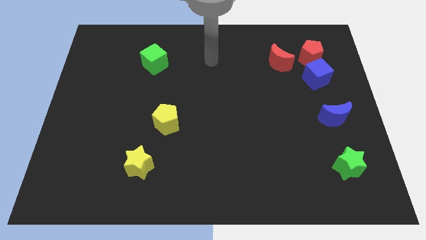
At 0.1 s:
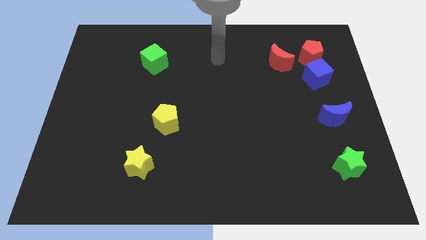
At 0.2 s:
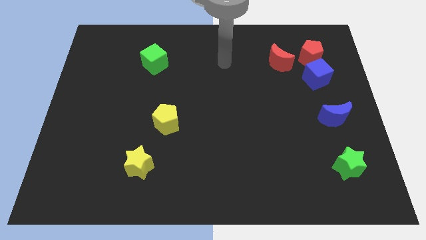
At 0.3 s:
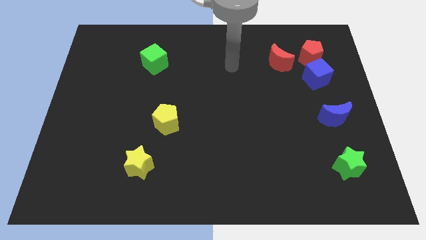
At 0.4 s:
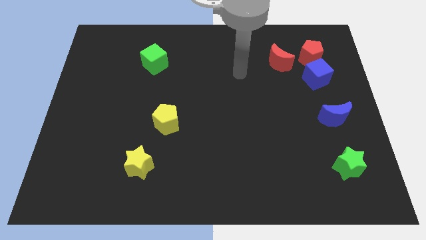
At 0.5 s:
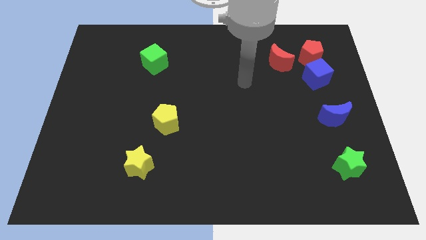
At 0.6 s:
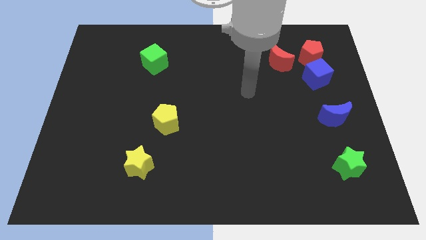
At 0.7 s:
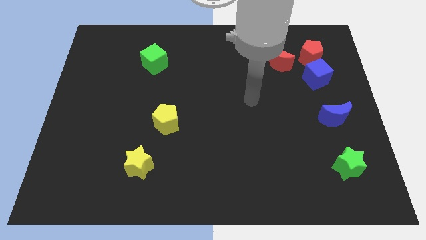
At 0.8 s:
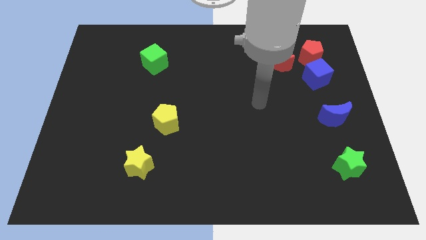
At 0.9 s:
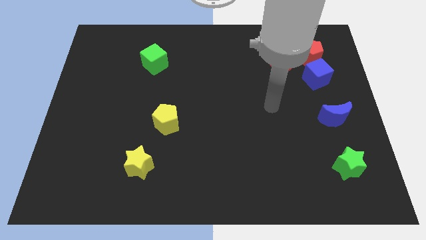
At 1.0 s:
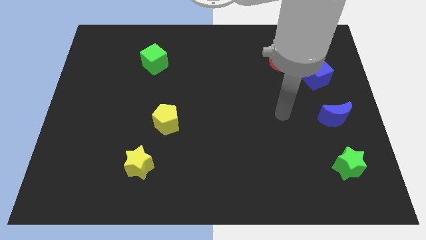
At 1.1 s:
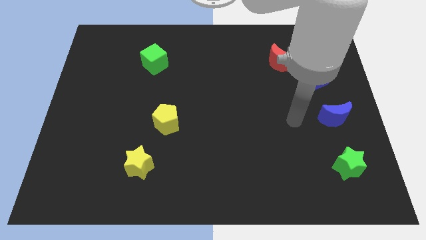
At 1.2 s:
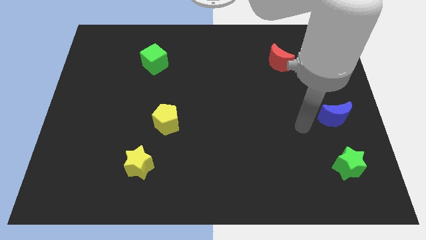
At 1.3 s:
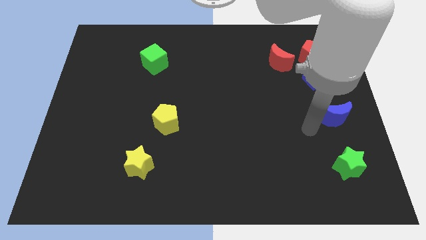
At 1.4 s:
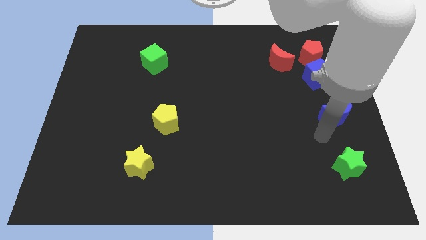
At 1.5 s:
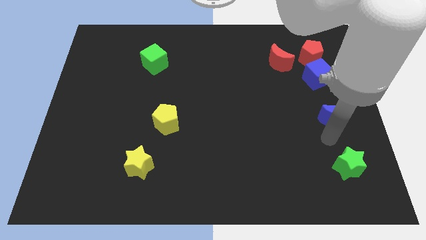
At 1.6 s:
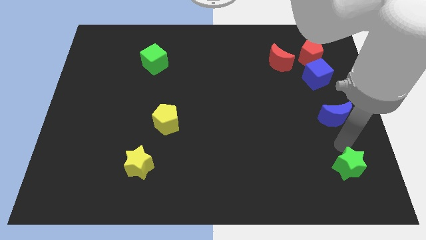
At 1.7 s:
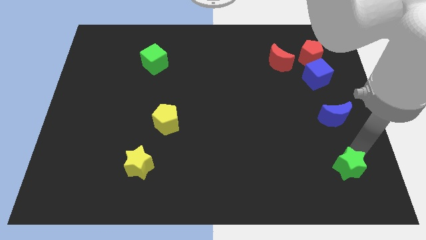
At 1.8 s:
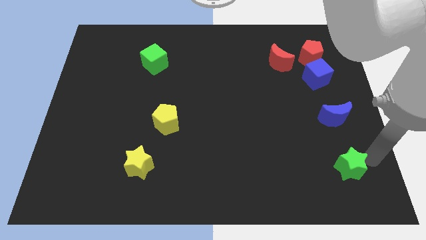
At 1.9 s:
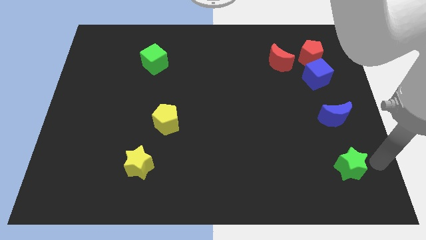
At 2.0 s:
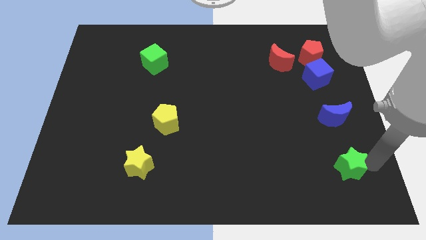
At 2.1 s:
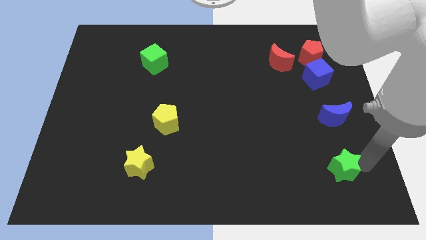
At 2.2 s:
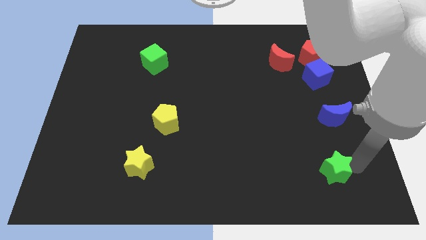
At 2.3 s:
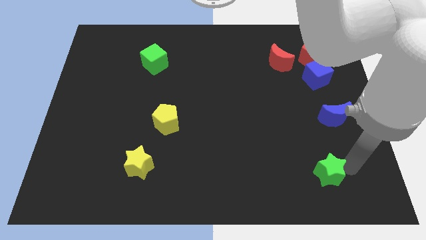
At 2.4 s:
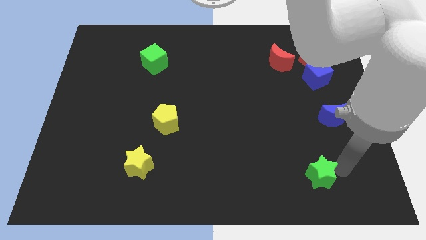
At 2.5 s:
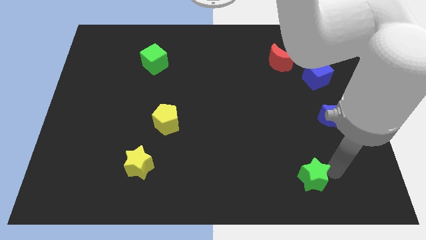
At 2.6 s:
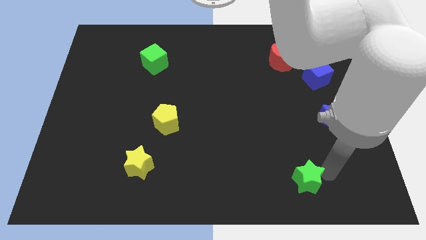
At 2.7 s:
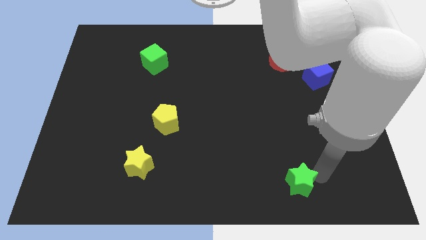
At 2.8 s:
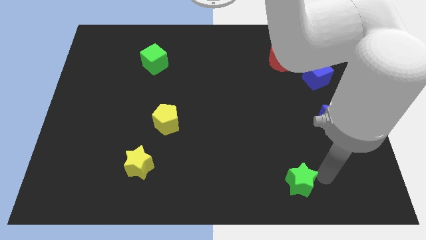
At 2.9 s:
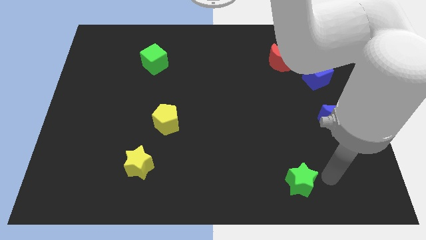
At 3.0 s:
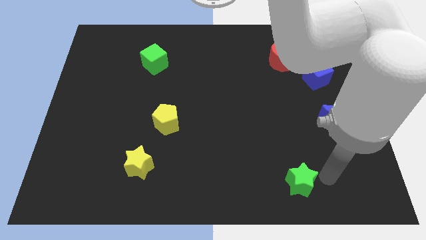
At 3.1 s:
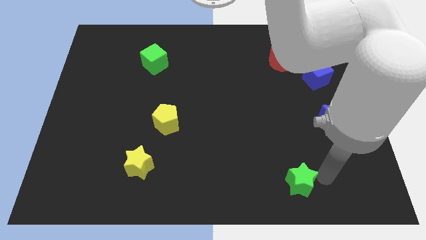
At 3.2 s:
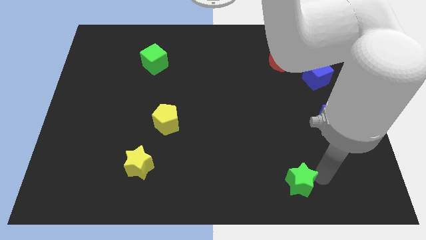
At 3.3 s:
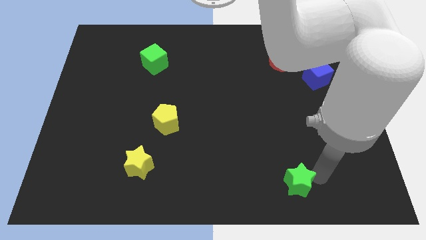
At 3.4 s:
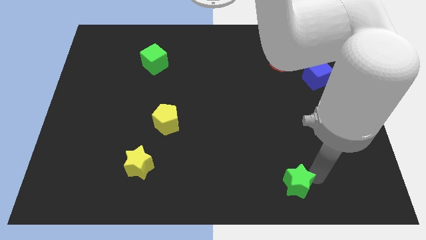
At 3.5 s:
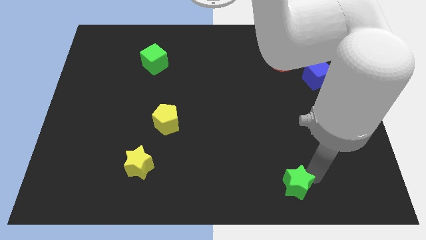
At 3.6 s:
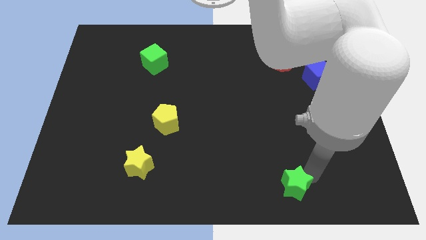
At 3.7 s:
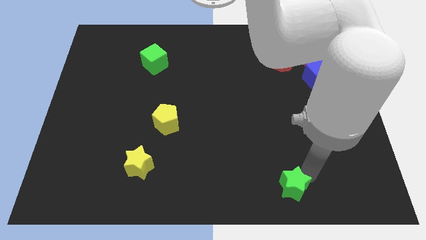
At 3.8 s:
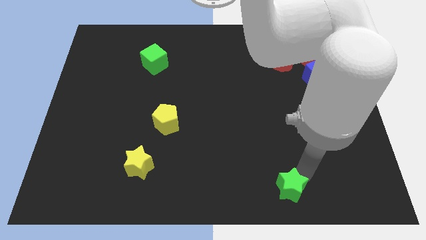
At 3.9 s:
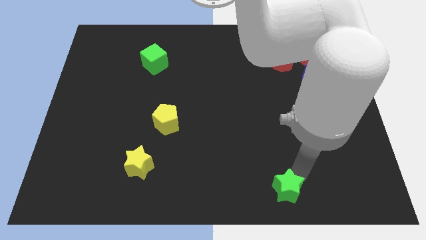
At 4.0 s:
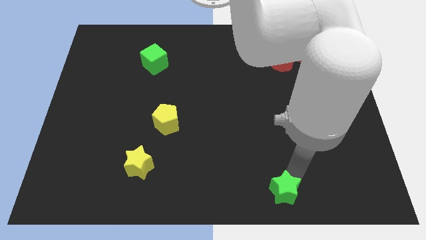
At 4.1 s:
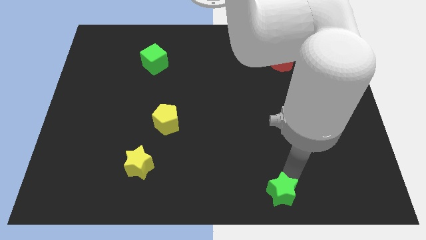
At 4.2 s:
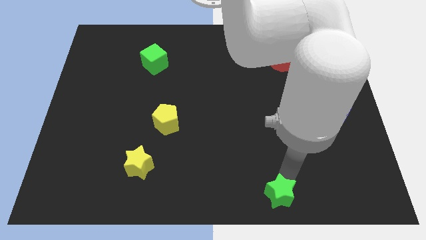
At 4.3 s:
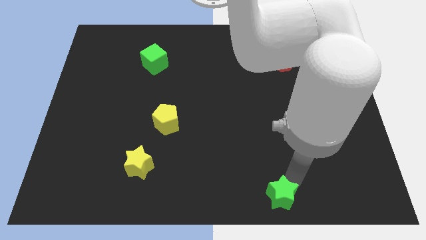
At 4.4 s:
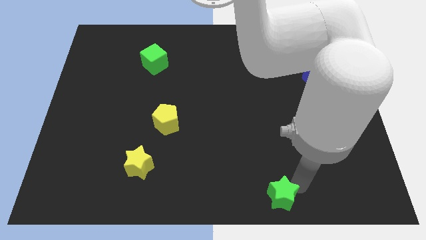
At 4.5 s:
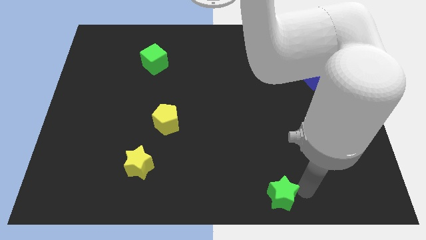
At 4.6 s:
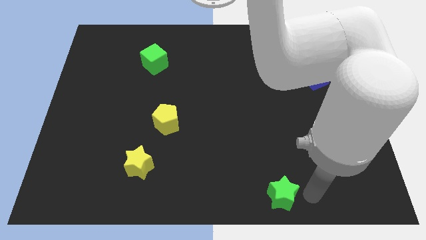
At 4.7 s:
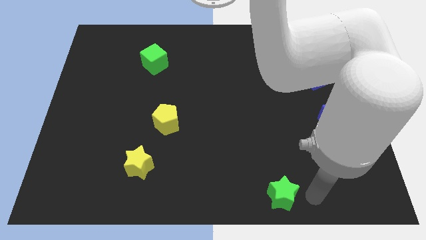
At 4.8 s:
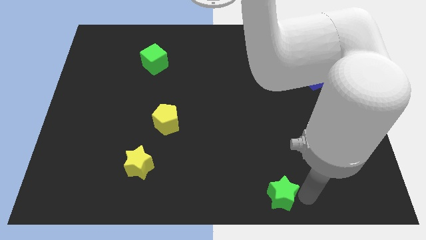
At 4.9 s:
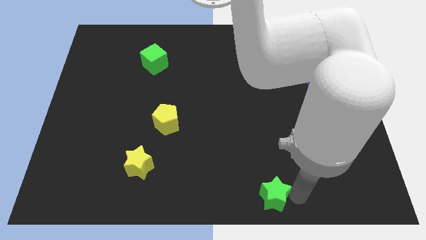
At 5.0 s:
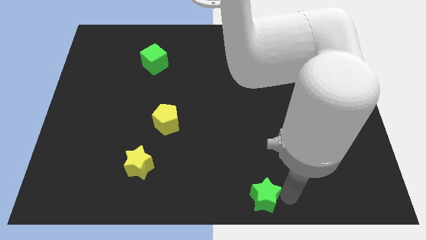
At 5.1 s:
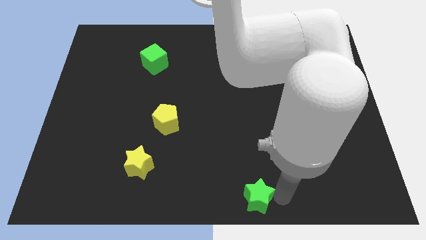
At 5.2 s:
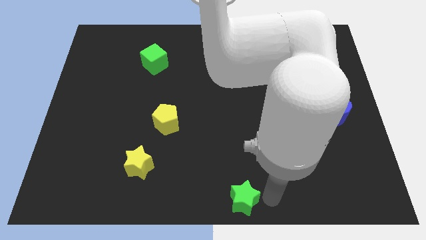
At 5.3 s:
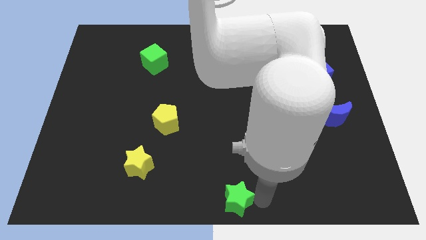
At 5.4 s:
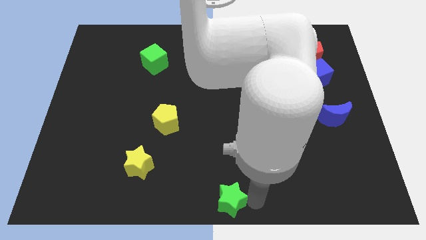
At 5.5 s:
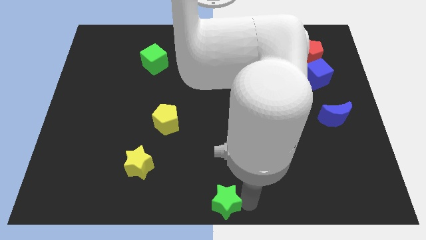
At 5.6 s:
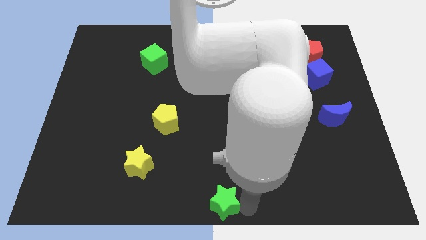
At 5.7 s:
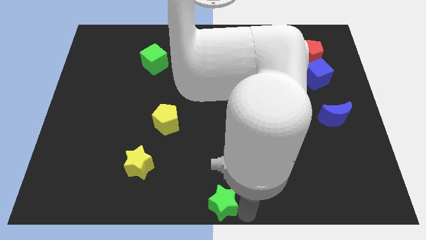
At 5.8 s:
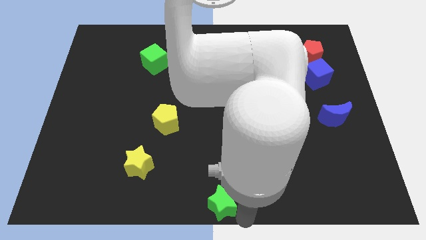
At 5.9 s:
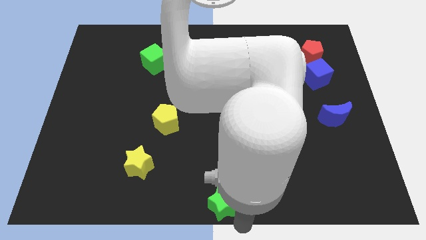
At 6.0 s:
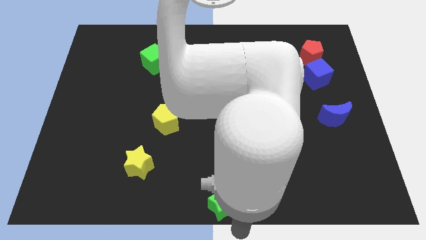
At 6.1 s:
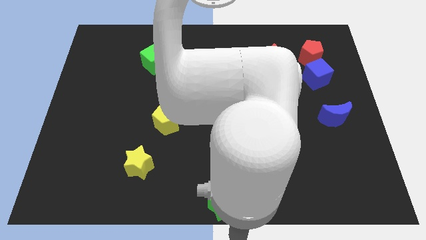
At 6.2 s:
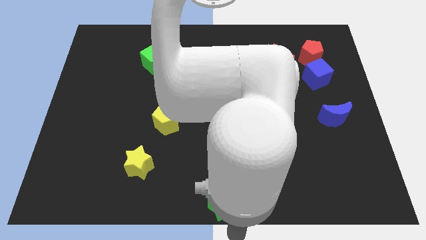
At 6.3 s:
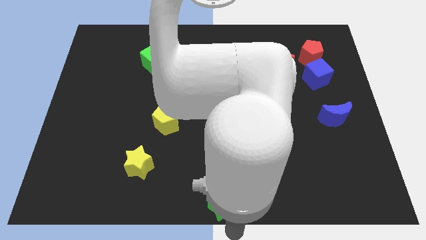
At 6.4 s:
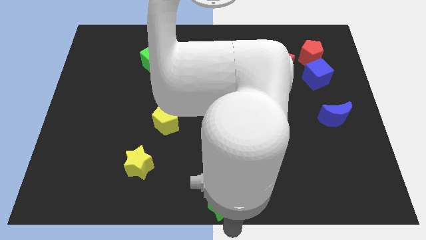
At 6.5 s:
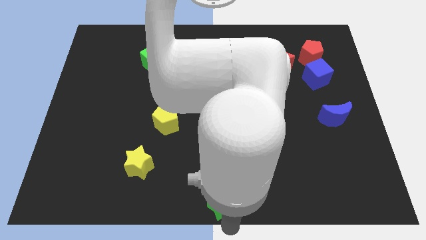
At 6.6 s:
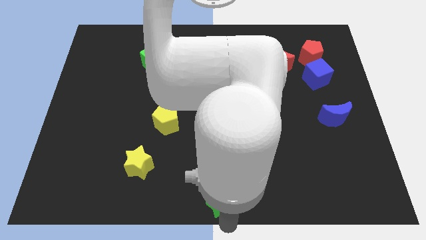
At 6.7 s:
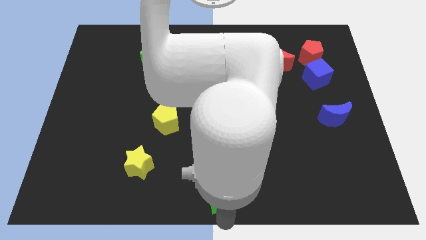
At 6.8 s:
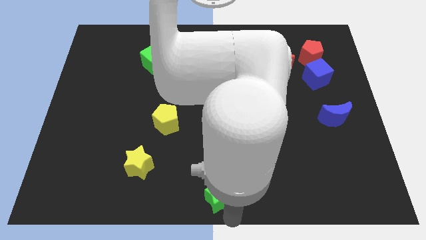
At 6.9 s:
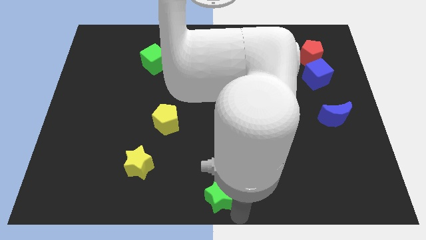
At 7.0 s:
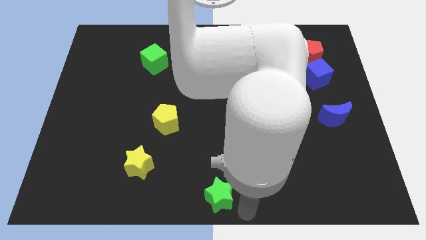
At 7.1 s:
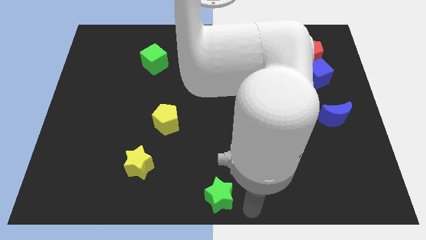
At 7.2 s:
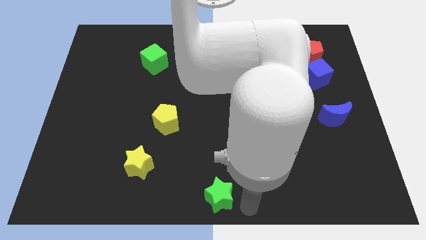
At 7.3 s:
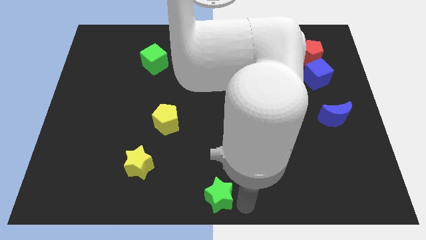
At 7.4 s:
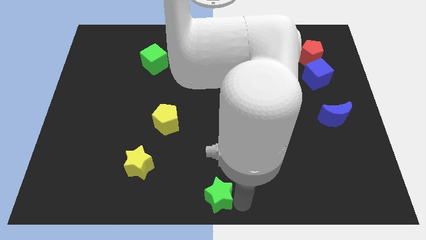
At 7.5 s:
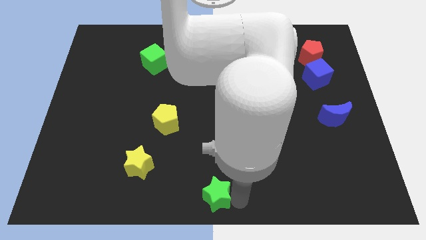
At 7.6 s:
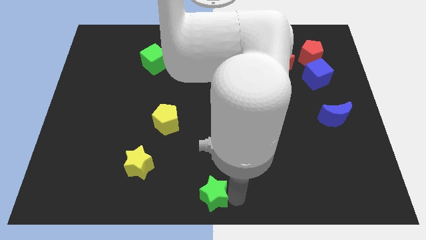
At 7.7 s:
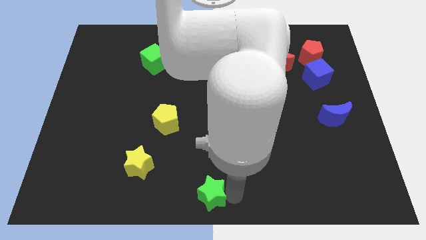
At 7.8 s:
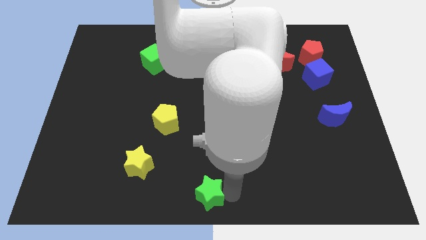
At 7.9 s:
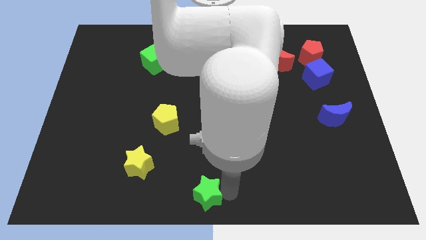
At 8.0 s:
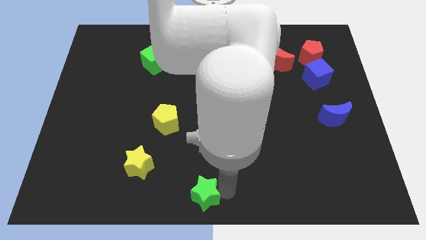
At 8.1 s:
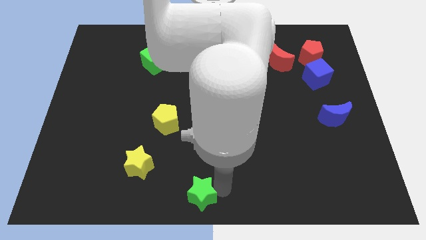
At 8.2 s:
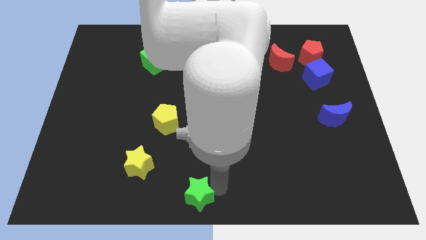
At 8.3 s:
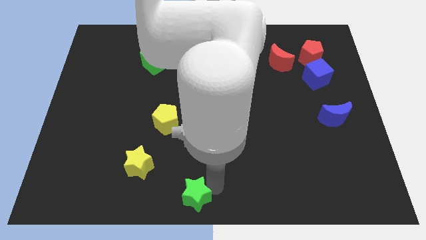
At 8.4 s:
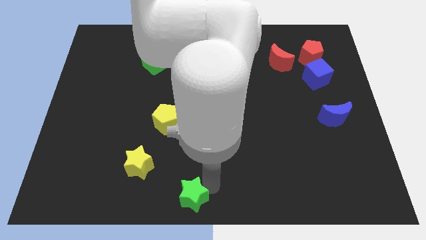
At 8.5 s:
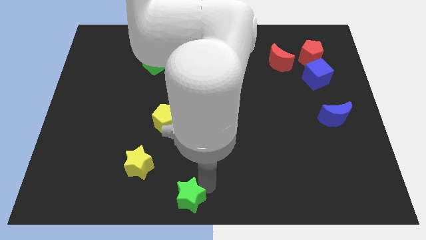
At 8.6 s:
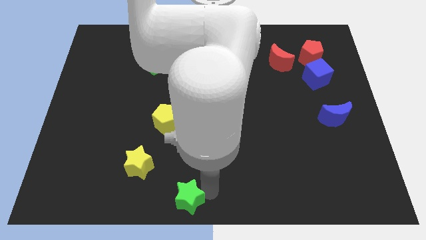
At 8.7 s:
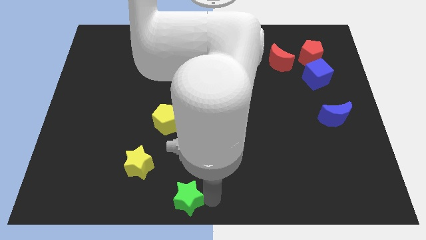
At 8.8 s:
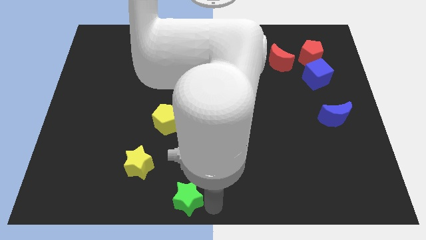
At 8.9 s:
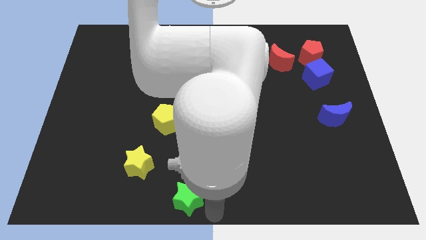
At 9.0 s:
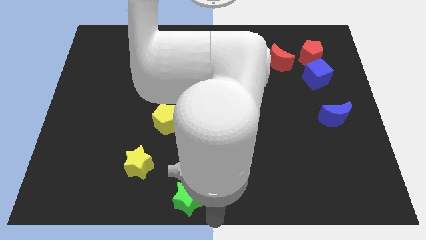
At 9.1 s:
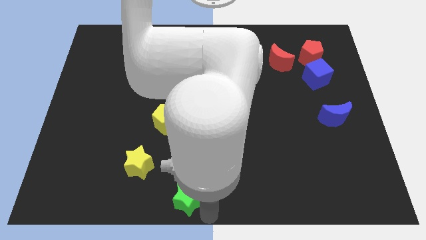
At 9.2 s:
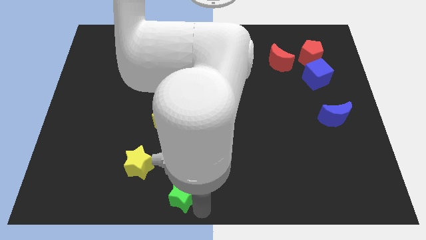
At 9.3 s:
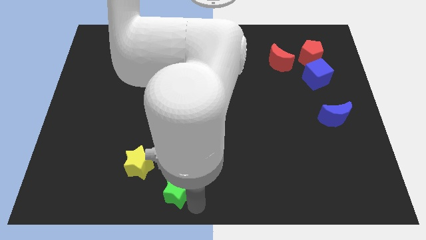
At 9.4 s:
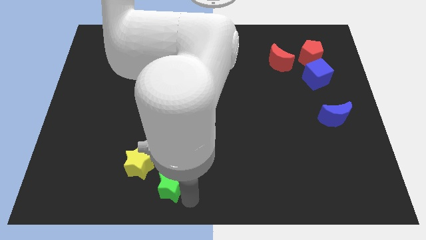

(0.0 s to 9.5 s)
slide the green star to the bottom of the yellow pentagon
